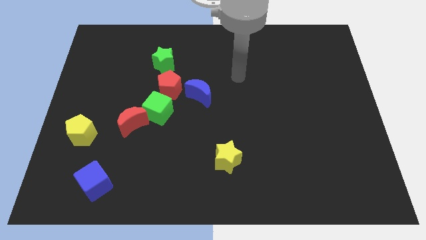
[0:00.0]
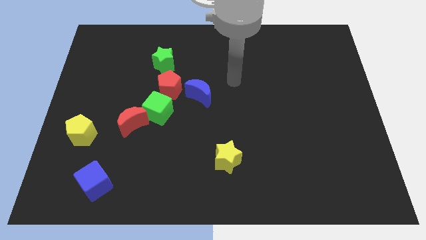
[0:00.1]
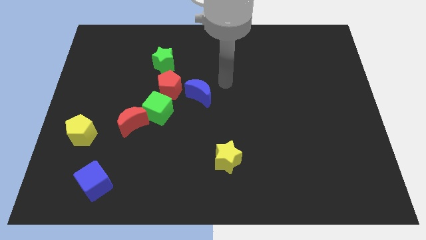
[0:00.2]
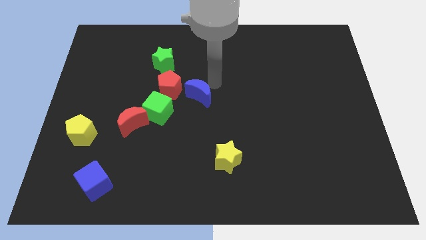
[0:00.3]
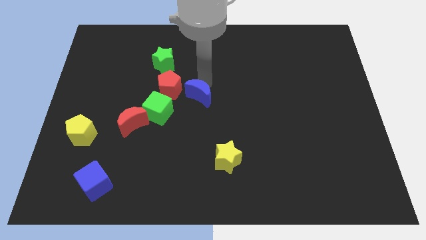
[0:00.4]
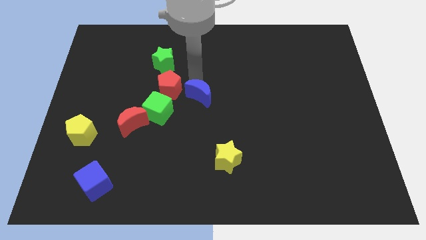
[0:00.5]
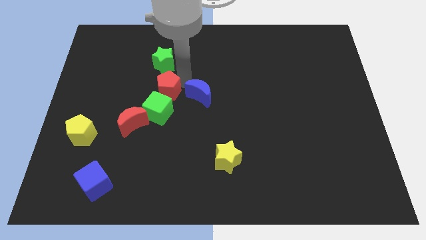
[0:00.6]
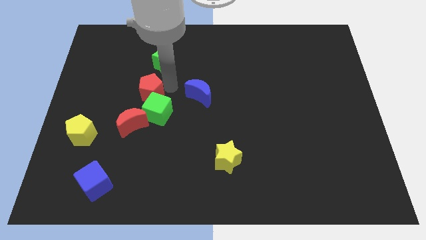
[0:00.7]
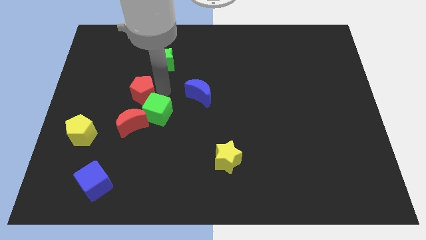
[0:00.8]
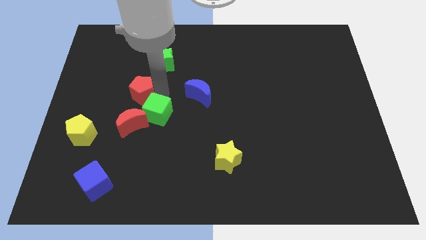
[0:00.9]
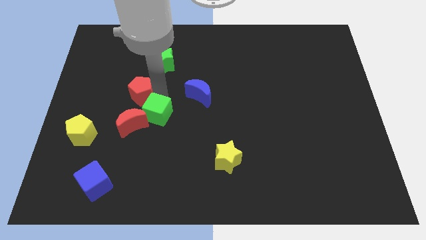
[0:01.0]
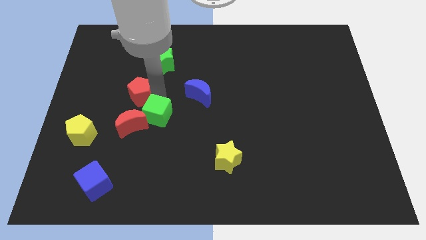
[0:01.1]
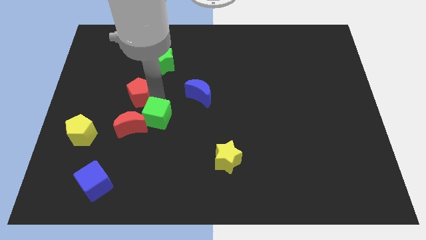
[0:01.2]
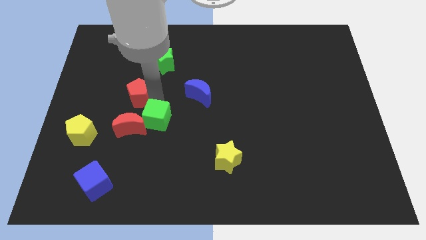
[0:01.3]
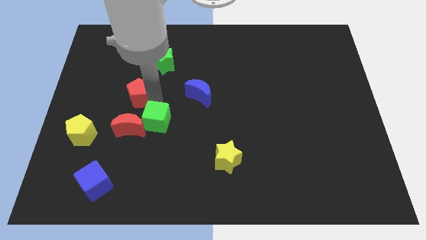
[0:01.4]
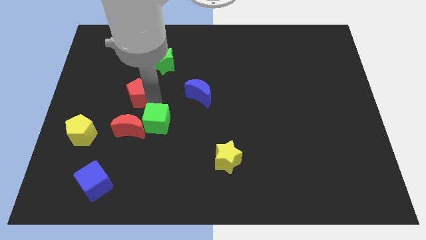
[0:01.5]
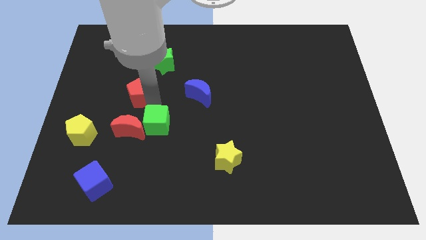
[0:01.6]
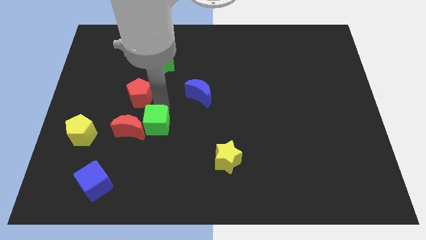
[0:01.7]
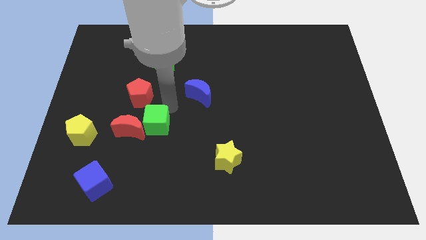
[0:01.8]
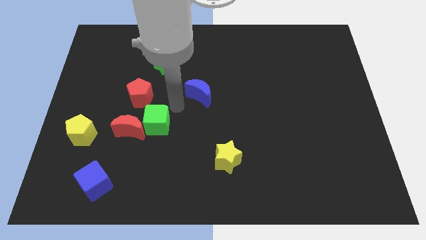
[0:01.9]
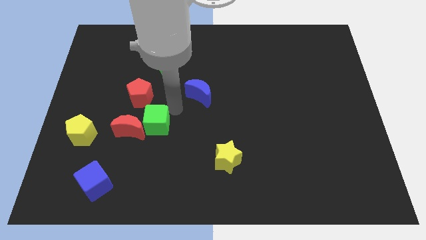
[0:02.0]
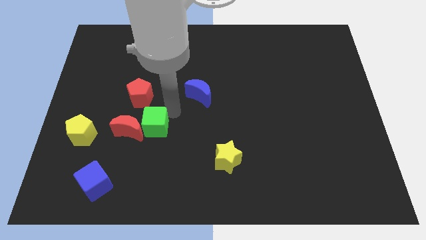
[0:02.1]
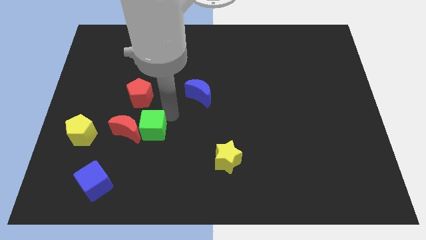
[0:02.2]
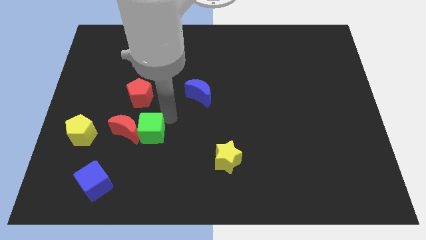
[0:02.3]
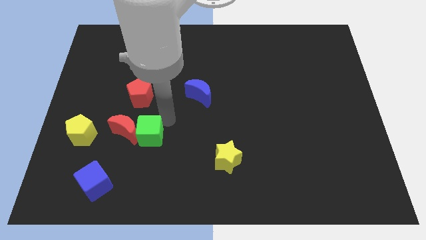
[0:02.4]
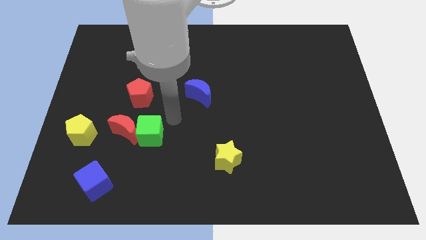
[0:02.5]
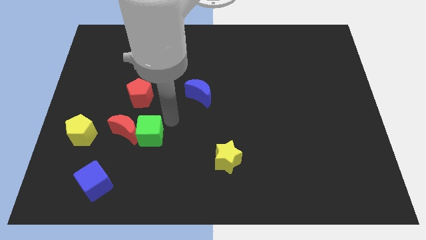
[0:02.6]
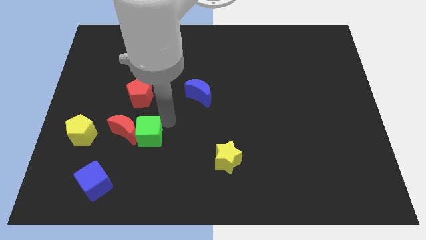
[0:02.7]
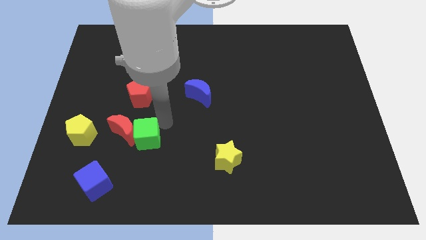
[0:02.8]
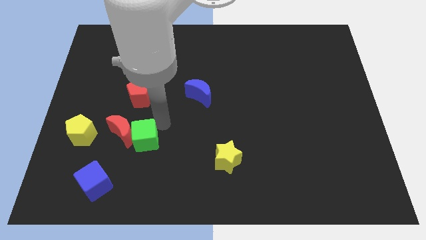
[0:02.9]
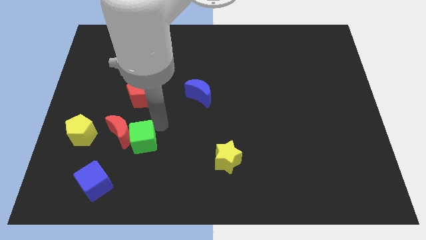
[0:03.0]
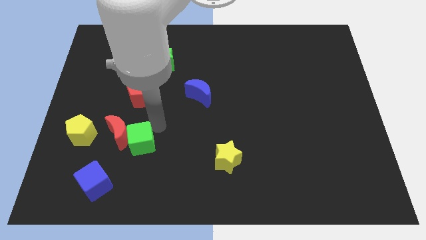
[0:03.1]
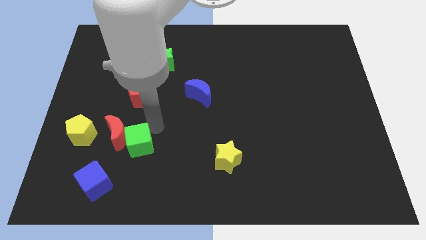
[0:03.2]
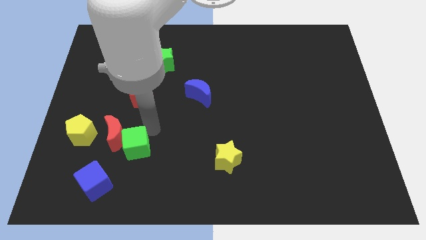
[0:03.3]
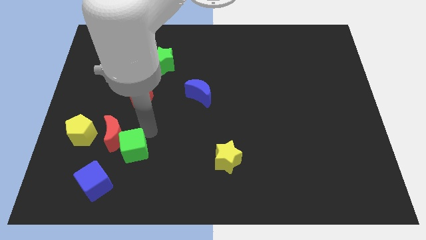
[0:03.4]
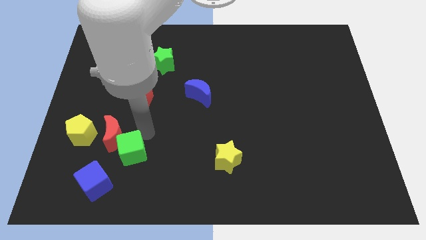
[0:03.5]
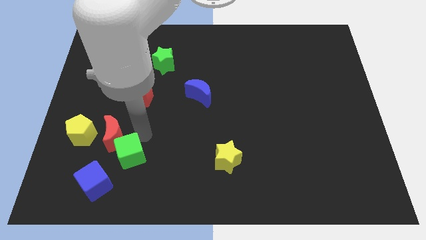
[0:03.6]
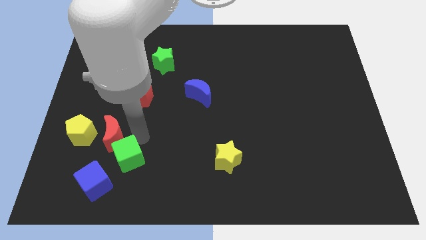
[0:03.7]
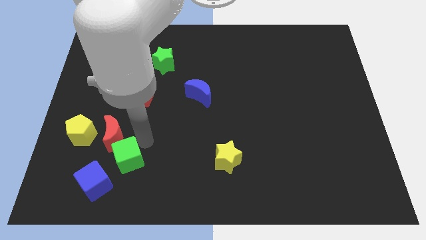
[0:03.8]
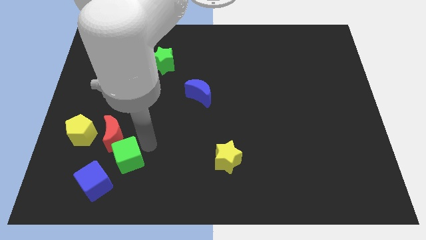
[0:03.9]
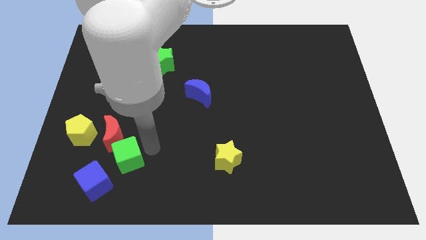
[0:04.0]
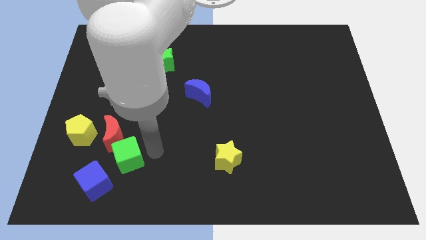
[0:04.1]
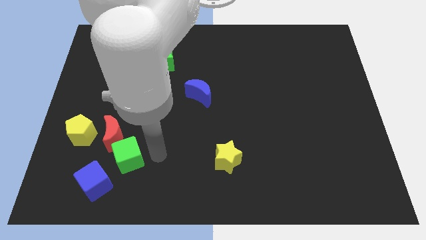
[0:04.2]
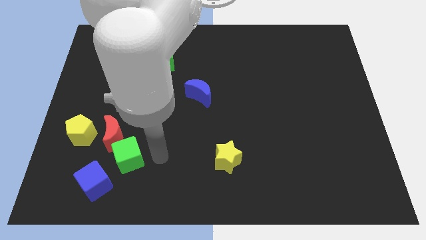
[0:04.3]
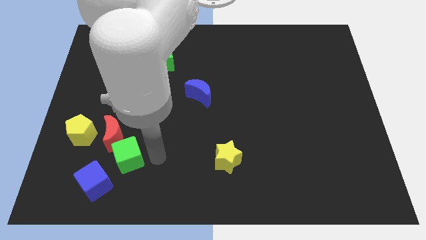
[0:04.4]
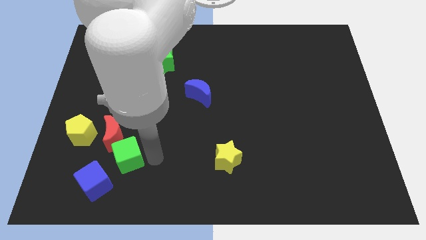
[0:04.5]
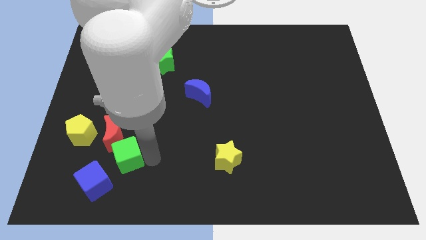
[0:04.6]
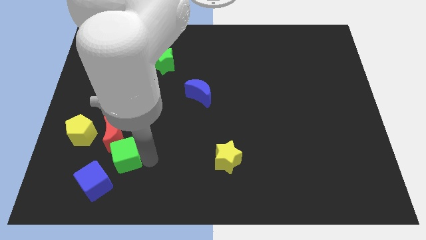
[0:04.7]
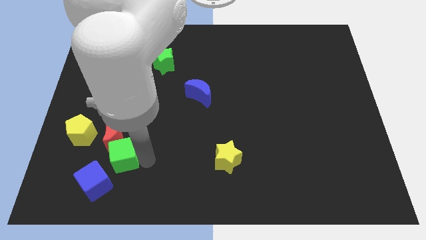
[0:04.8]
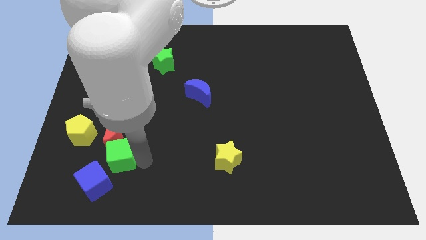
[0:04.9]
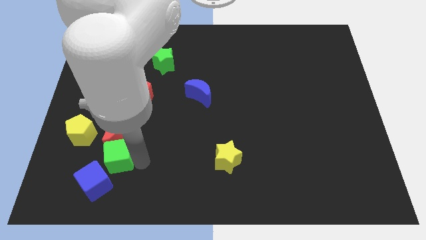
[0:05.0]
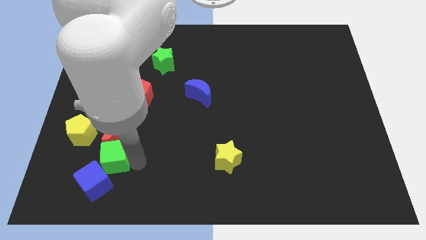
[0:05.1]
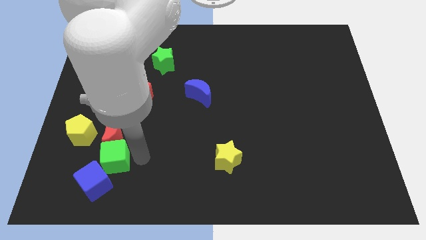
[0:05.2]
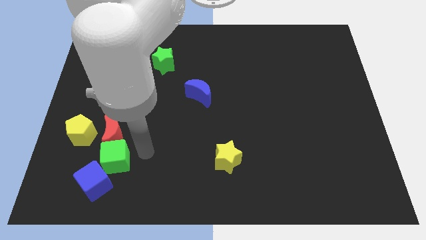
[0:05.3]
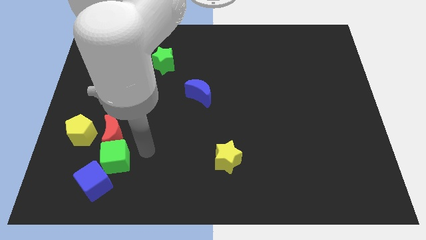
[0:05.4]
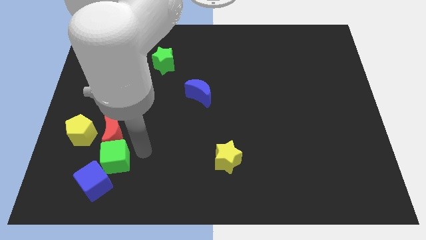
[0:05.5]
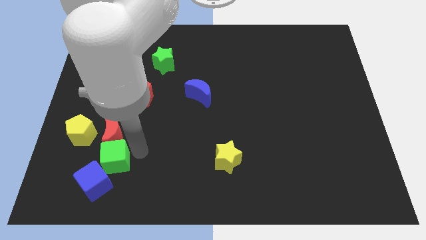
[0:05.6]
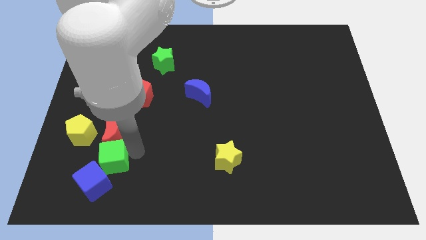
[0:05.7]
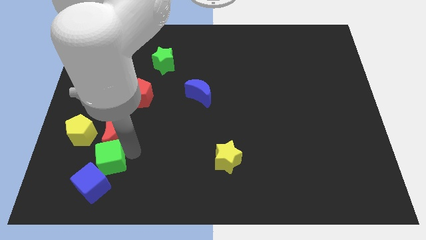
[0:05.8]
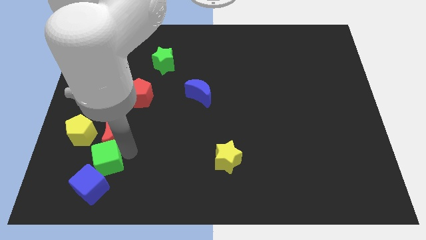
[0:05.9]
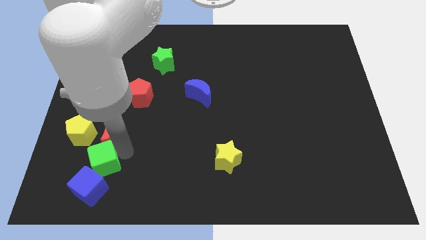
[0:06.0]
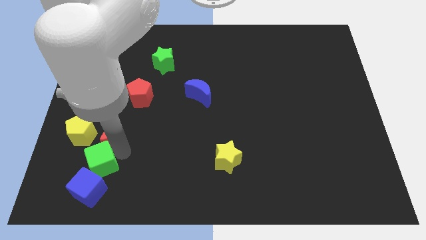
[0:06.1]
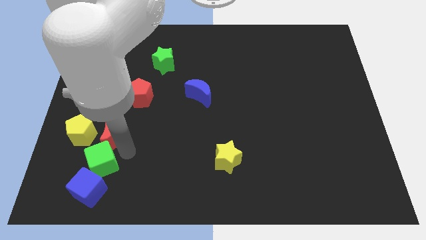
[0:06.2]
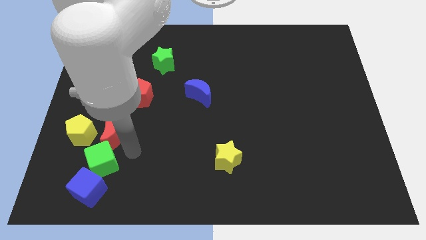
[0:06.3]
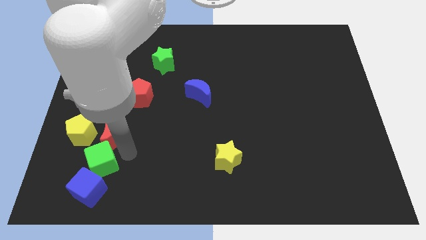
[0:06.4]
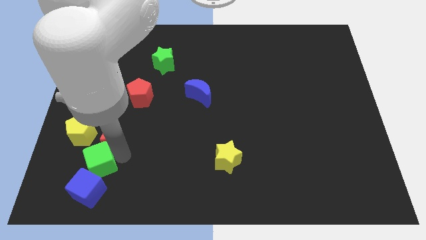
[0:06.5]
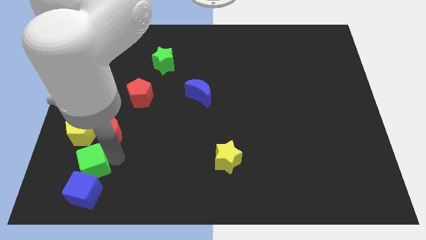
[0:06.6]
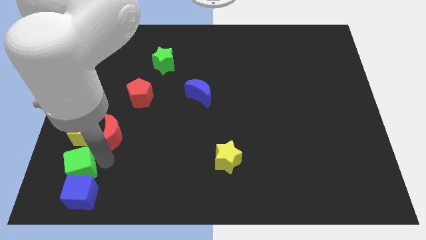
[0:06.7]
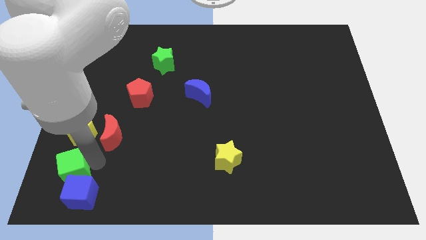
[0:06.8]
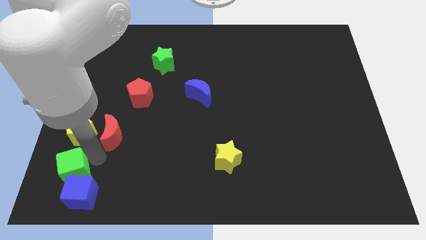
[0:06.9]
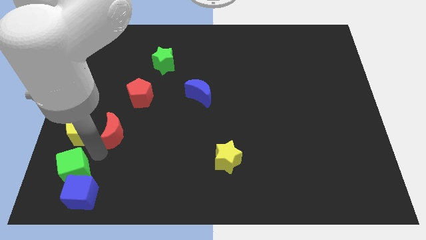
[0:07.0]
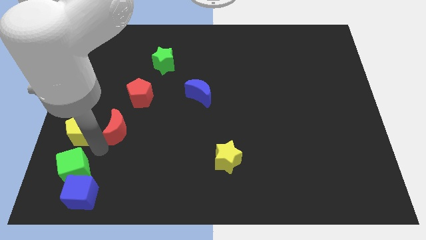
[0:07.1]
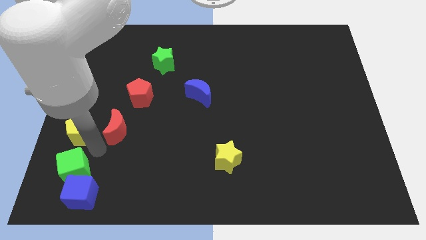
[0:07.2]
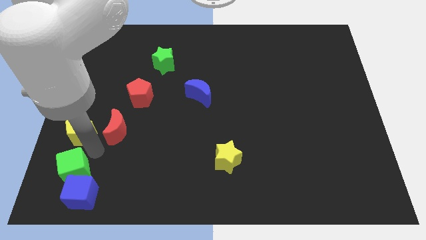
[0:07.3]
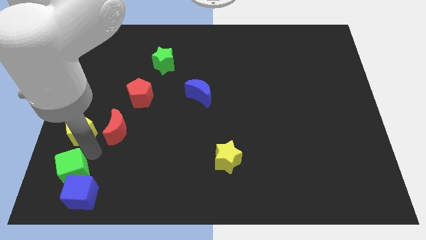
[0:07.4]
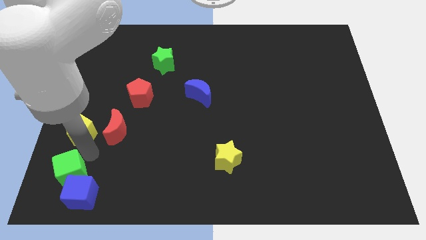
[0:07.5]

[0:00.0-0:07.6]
push the green cube to the lower left corner
